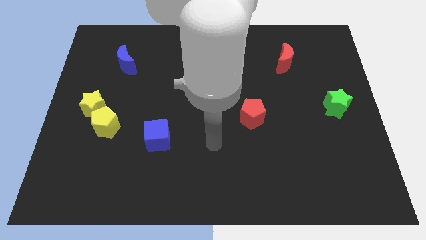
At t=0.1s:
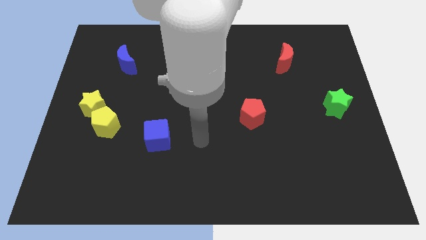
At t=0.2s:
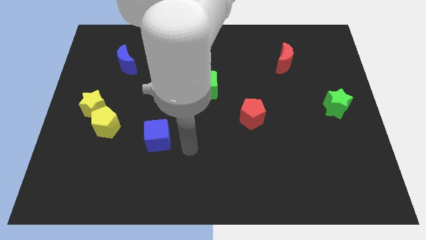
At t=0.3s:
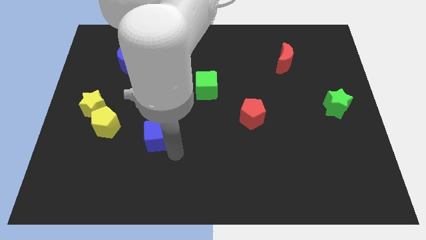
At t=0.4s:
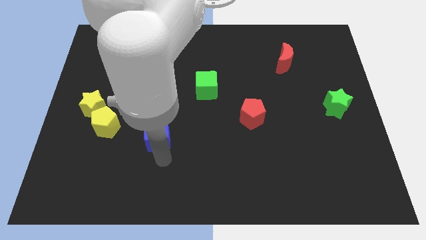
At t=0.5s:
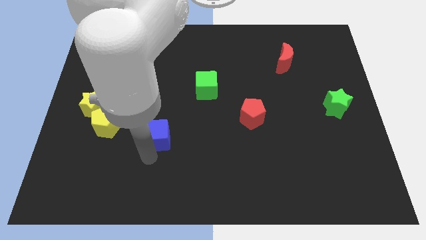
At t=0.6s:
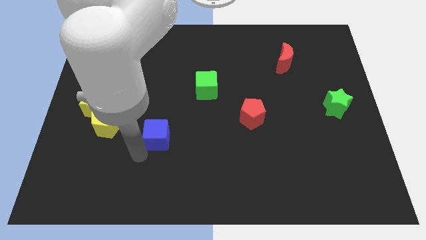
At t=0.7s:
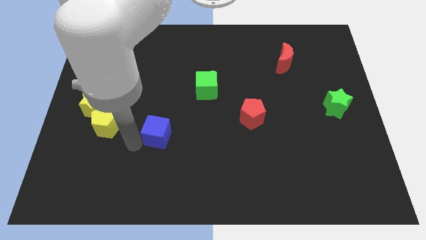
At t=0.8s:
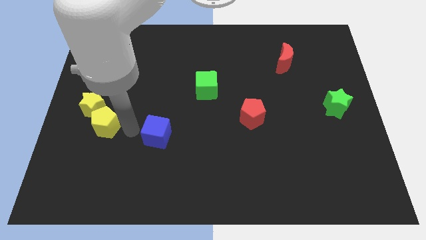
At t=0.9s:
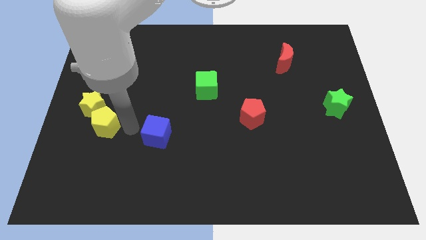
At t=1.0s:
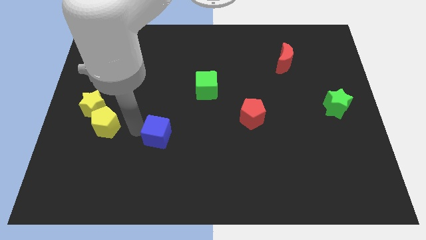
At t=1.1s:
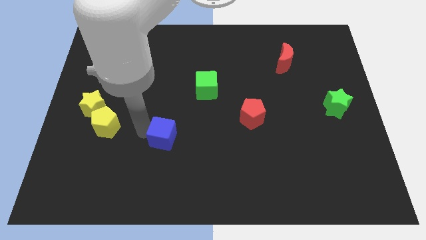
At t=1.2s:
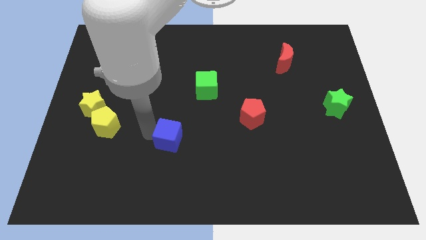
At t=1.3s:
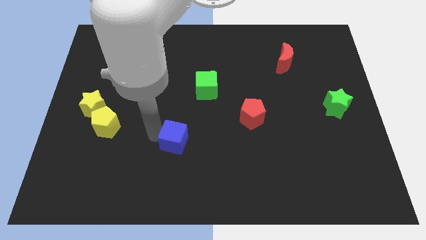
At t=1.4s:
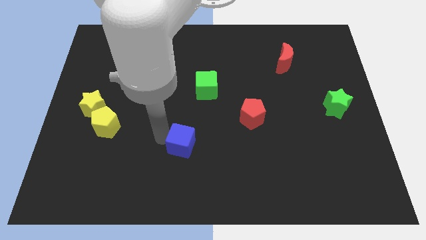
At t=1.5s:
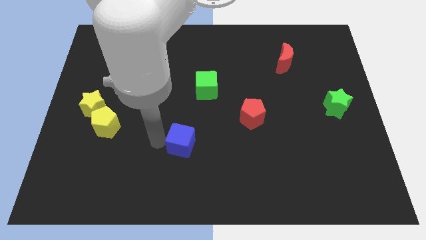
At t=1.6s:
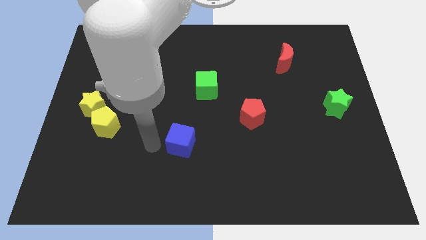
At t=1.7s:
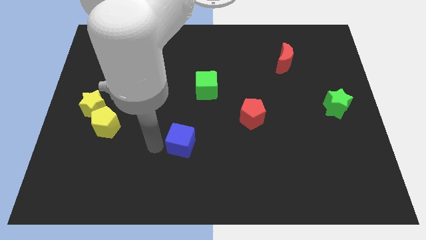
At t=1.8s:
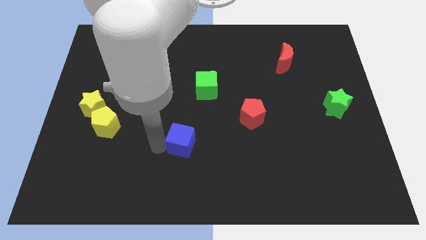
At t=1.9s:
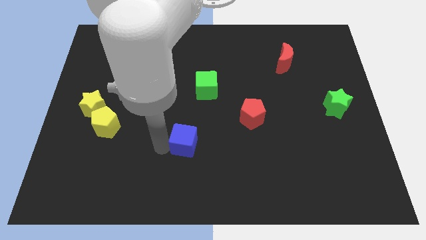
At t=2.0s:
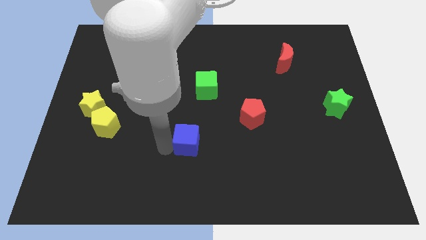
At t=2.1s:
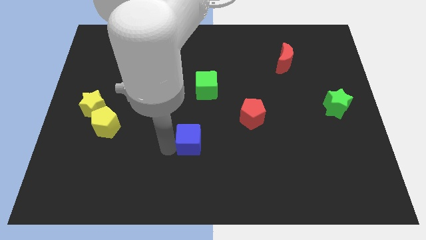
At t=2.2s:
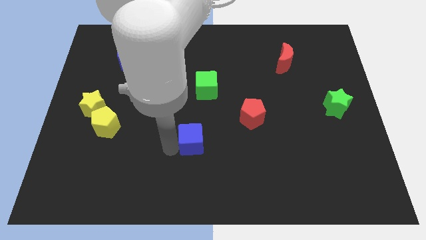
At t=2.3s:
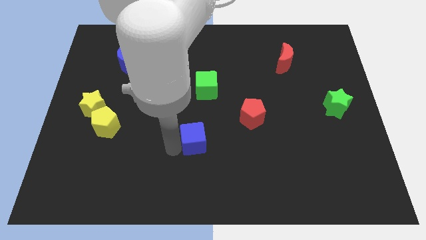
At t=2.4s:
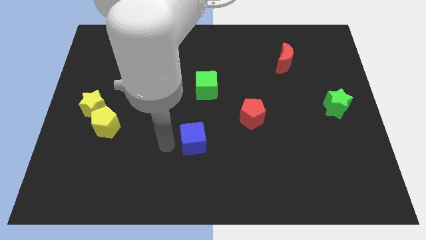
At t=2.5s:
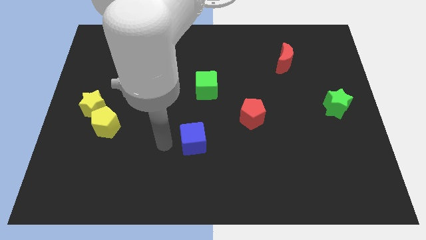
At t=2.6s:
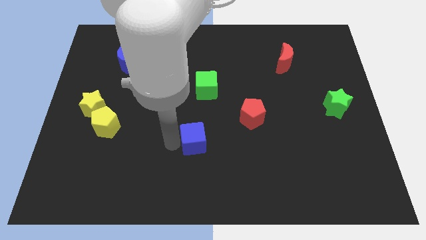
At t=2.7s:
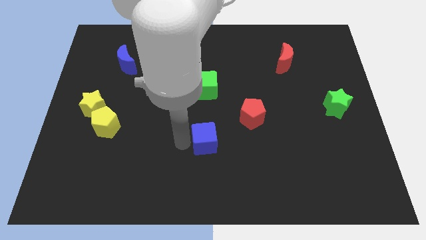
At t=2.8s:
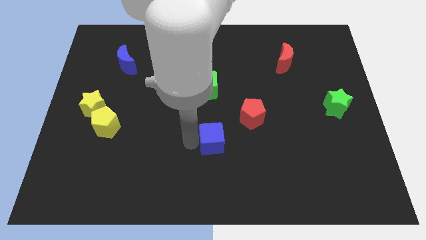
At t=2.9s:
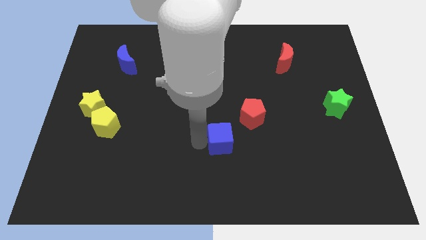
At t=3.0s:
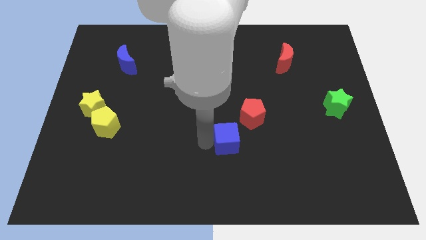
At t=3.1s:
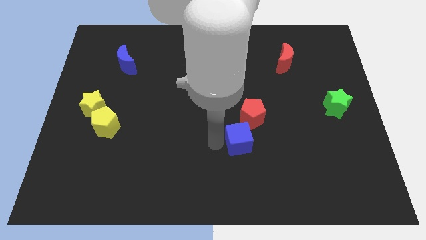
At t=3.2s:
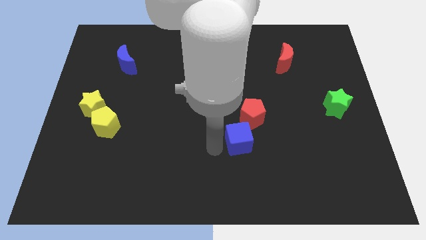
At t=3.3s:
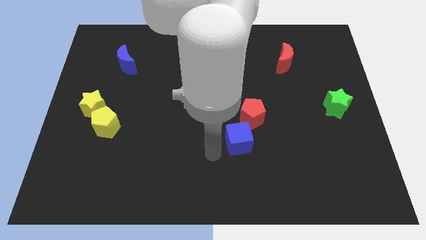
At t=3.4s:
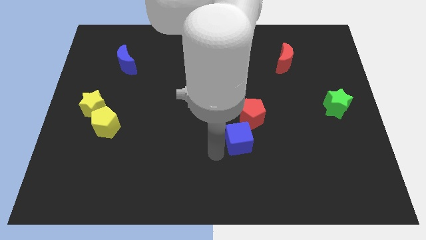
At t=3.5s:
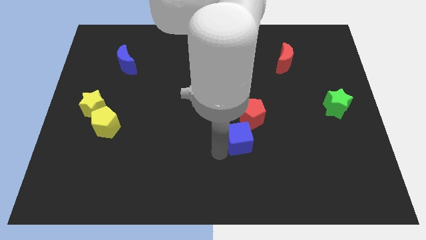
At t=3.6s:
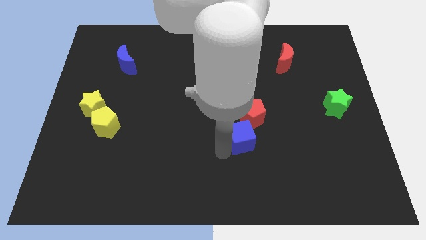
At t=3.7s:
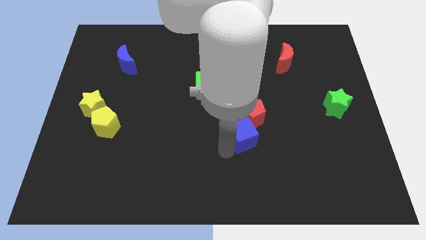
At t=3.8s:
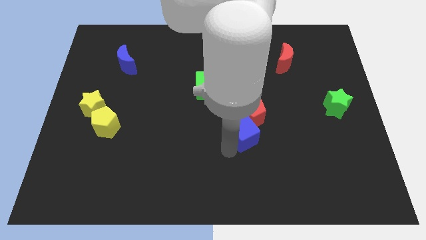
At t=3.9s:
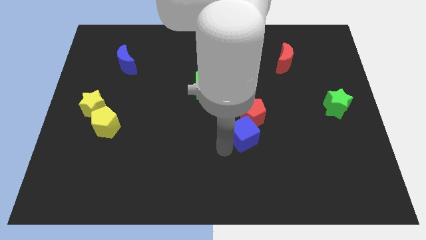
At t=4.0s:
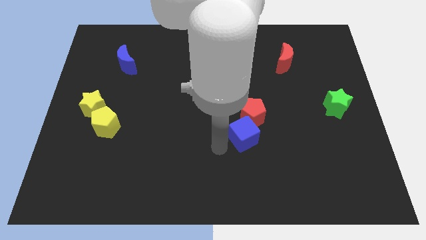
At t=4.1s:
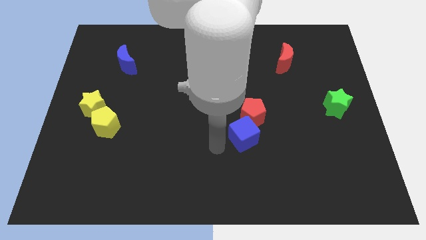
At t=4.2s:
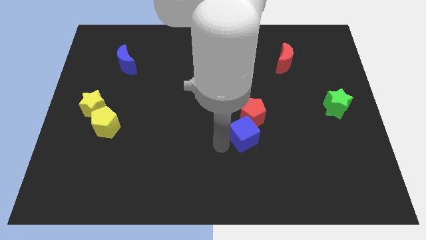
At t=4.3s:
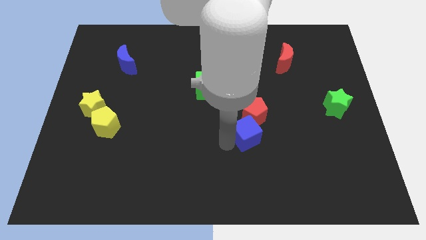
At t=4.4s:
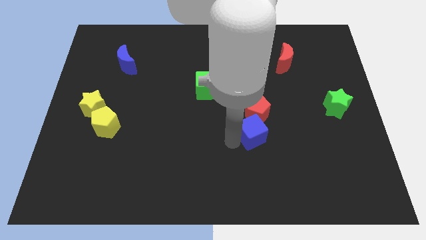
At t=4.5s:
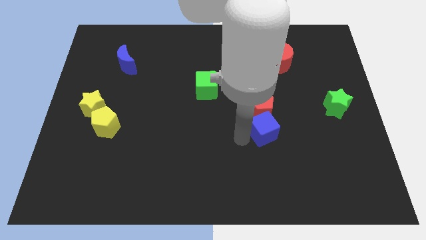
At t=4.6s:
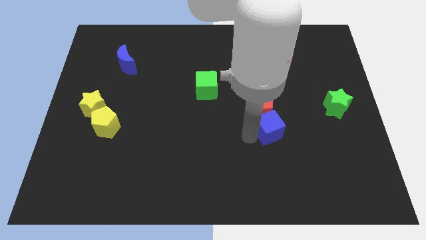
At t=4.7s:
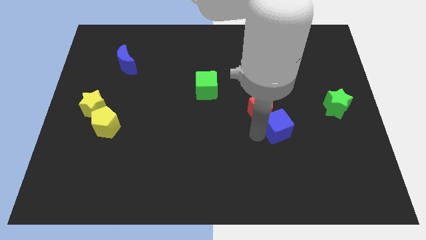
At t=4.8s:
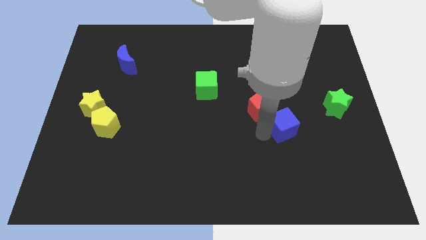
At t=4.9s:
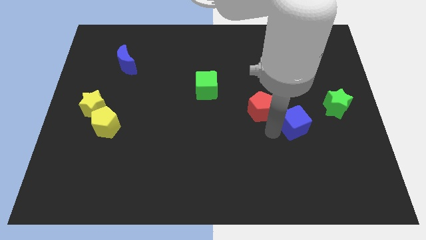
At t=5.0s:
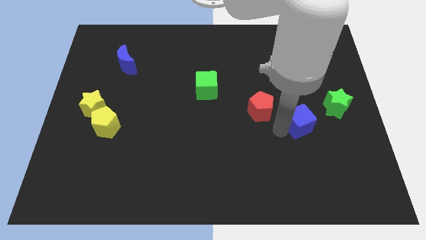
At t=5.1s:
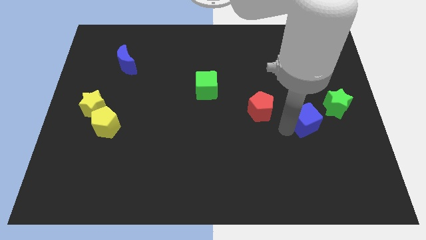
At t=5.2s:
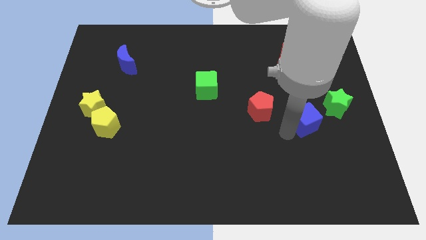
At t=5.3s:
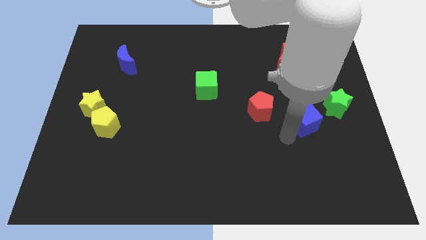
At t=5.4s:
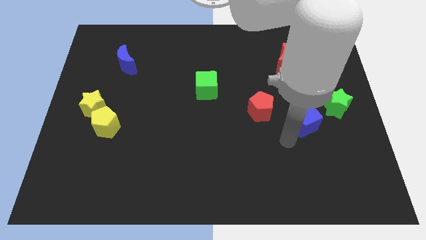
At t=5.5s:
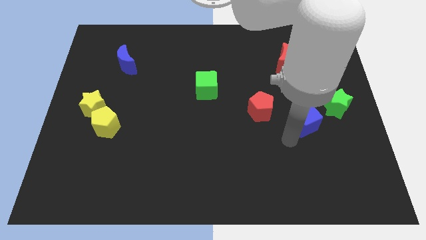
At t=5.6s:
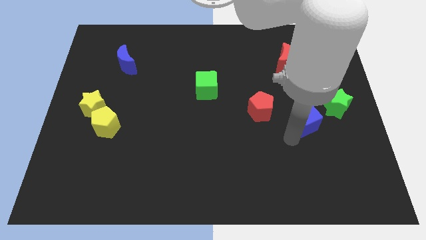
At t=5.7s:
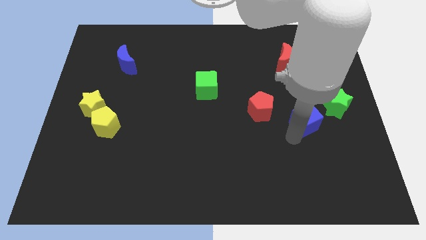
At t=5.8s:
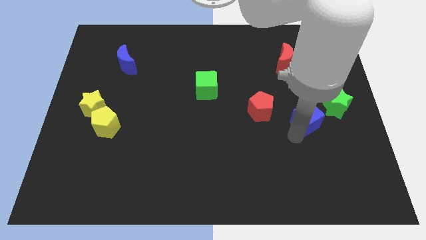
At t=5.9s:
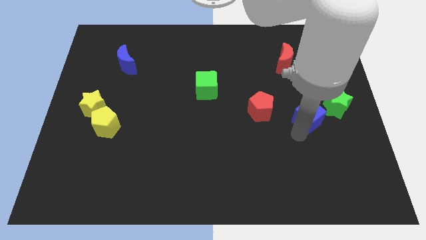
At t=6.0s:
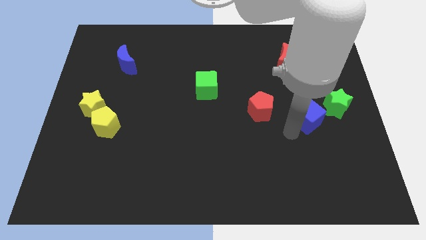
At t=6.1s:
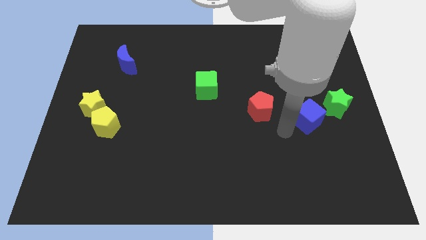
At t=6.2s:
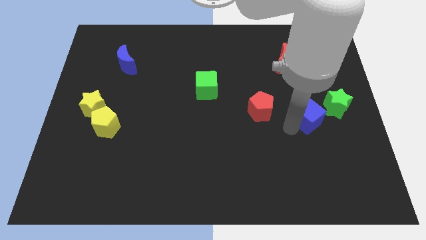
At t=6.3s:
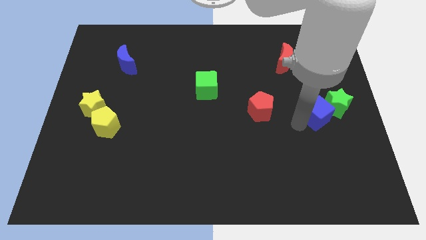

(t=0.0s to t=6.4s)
slide the blue cube close to the green star
